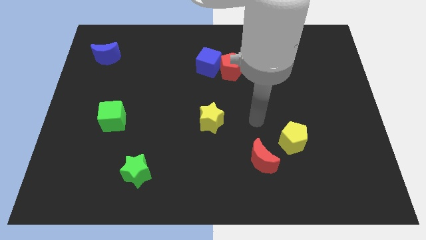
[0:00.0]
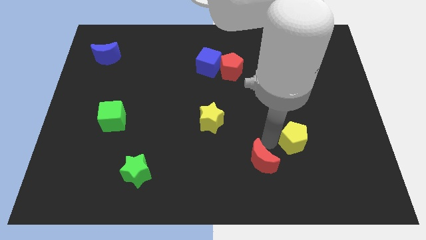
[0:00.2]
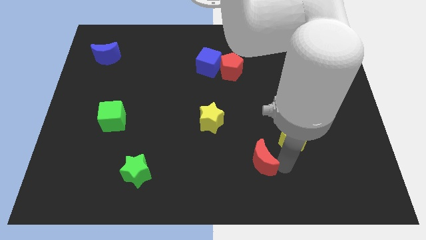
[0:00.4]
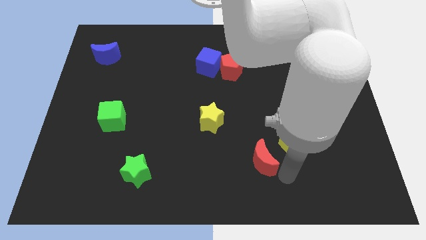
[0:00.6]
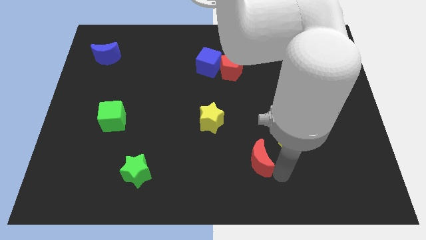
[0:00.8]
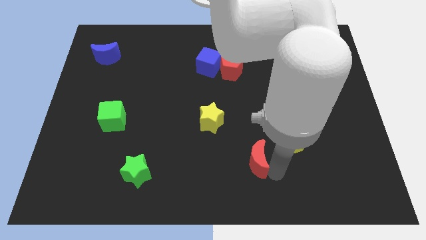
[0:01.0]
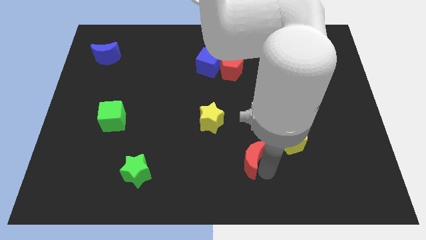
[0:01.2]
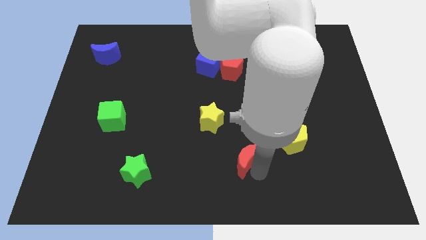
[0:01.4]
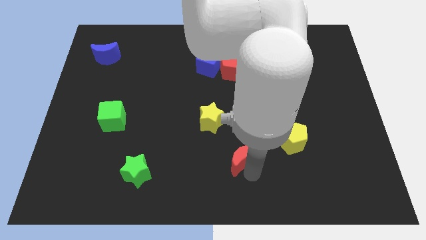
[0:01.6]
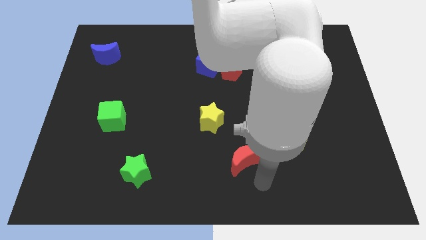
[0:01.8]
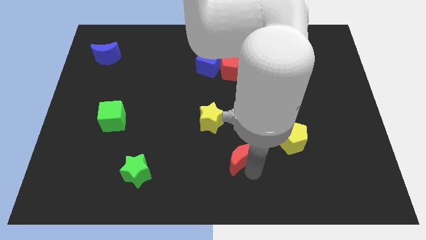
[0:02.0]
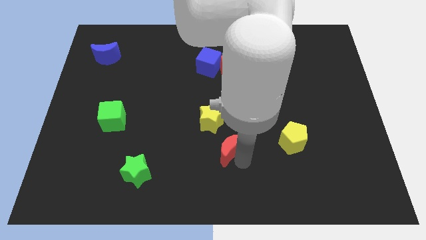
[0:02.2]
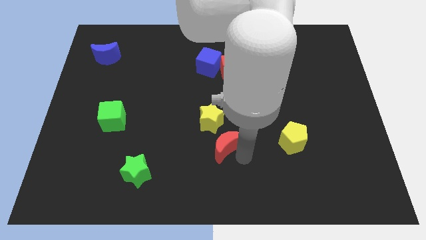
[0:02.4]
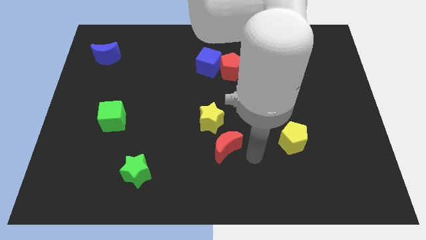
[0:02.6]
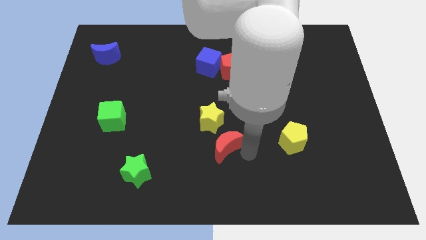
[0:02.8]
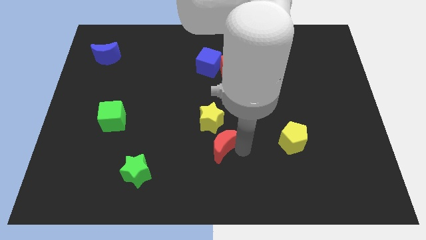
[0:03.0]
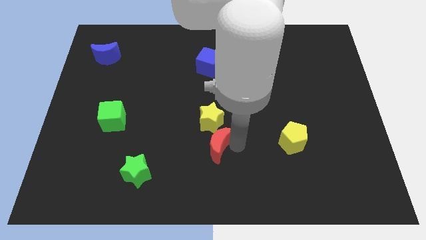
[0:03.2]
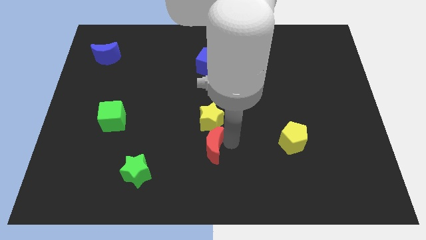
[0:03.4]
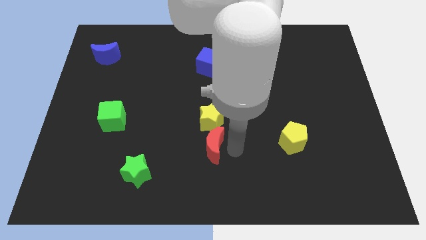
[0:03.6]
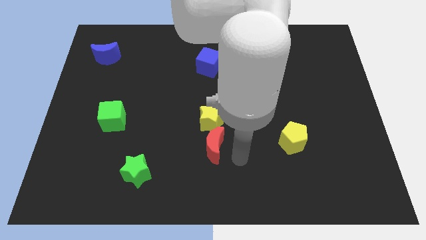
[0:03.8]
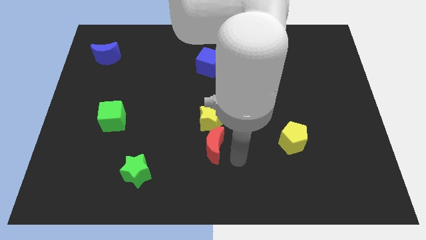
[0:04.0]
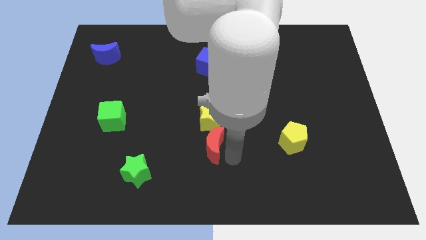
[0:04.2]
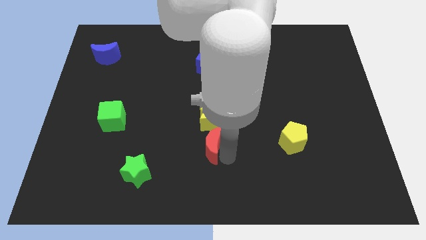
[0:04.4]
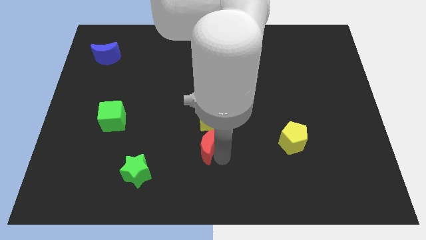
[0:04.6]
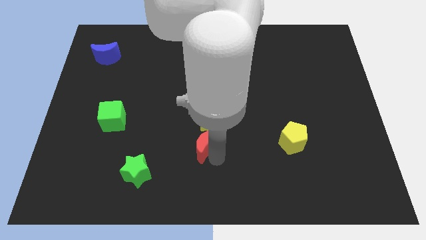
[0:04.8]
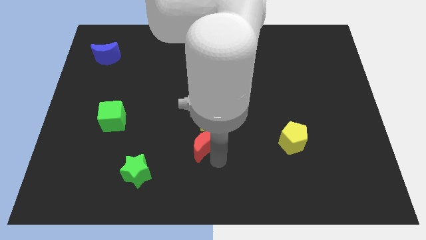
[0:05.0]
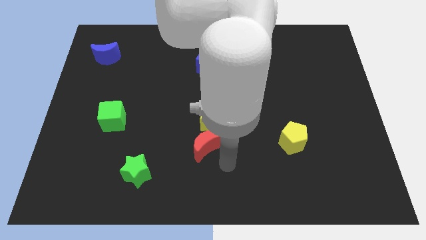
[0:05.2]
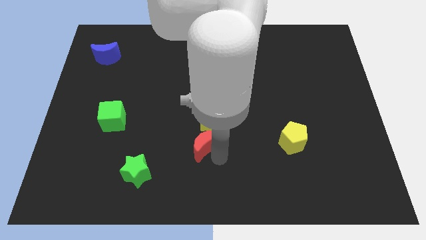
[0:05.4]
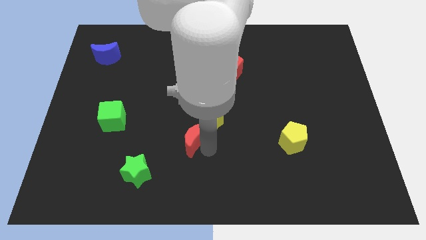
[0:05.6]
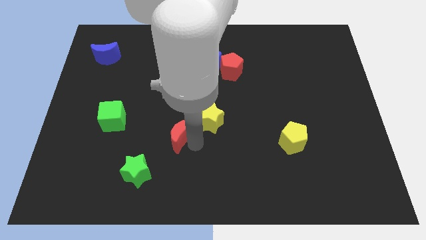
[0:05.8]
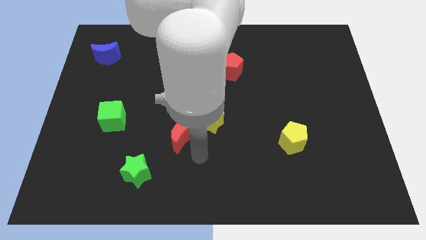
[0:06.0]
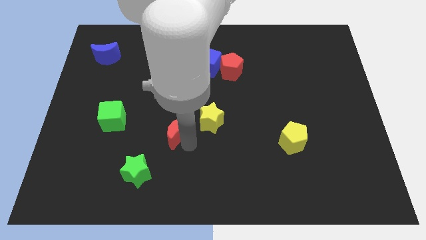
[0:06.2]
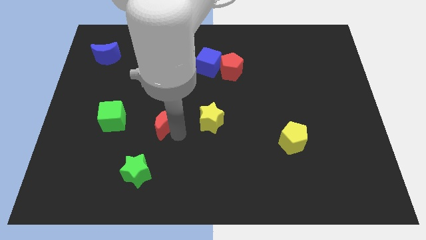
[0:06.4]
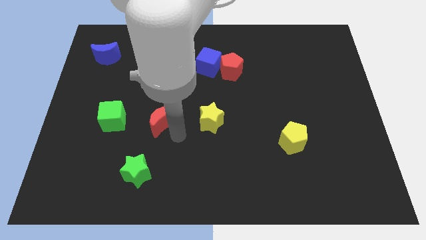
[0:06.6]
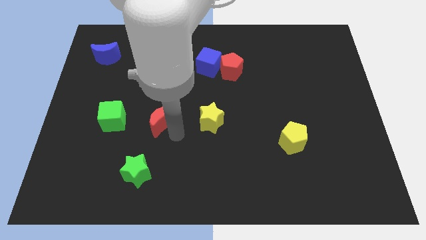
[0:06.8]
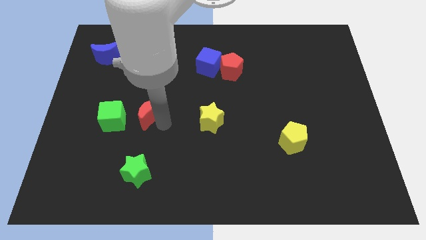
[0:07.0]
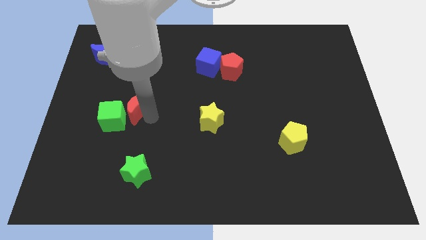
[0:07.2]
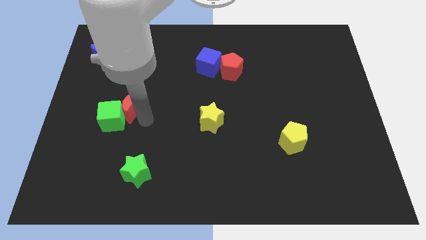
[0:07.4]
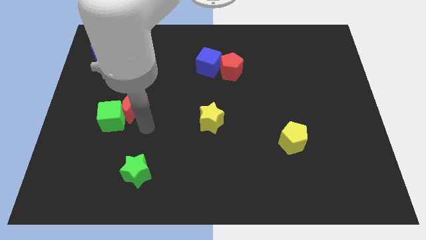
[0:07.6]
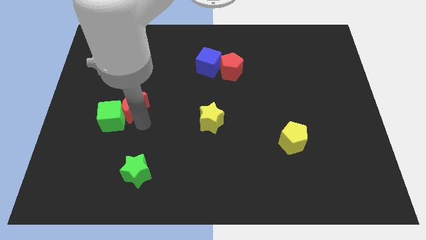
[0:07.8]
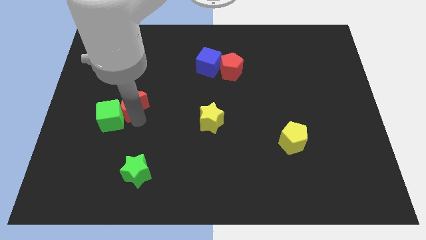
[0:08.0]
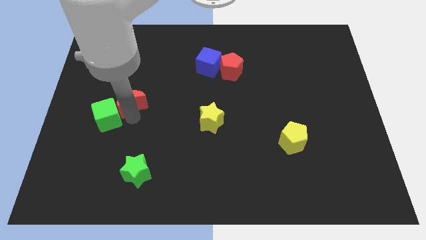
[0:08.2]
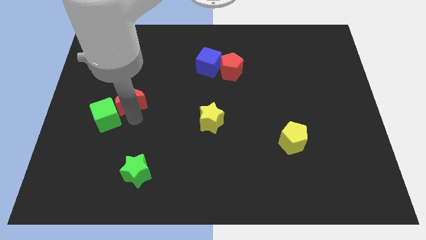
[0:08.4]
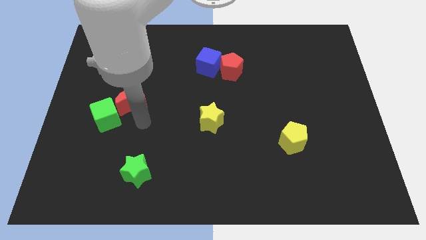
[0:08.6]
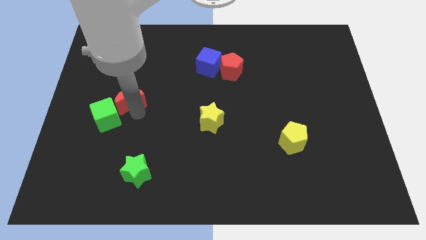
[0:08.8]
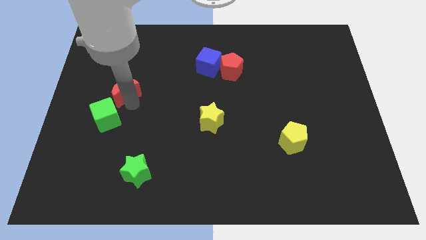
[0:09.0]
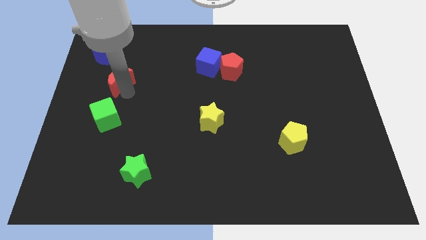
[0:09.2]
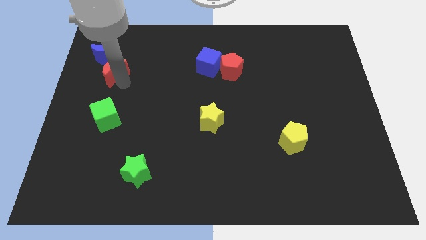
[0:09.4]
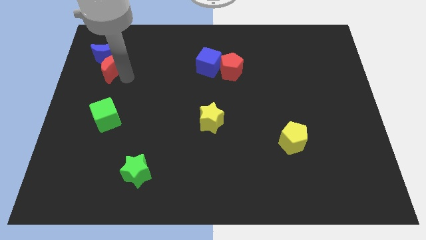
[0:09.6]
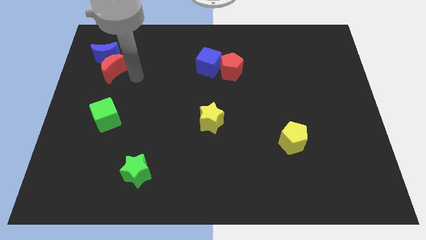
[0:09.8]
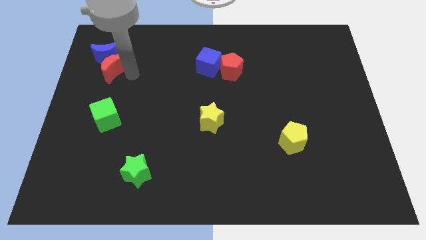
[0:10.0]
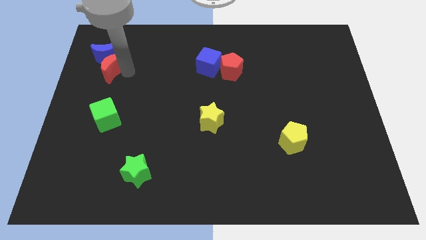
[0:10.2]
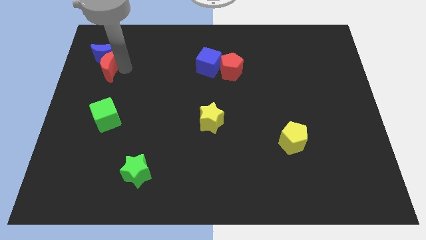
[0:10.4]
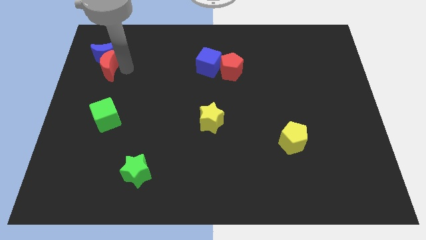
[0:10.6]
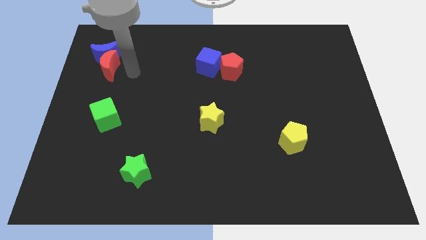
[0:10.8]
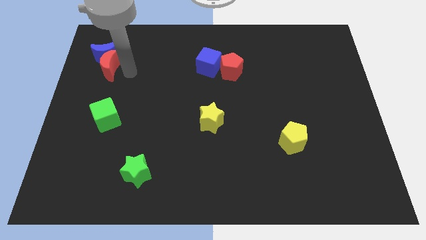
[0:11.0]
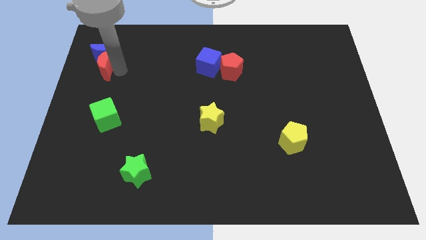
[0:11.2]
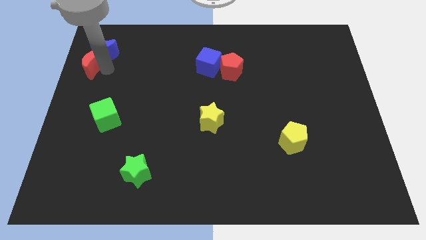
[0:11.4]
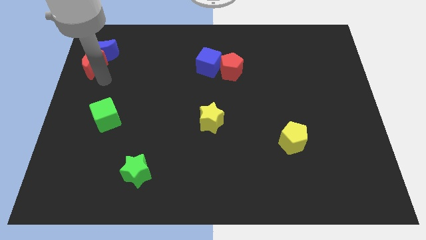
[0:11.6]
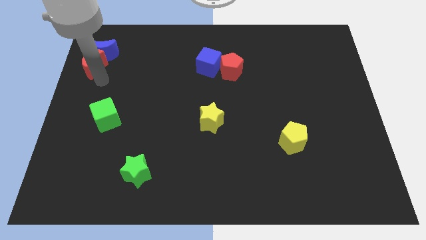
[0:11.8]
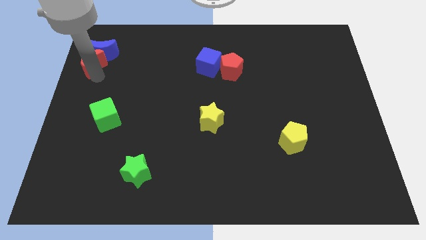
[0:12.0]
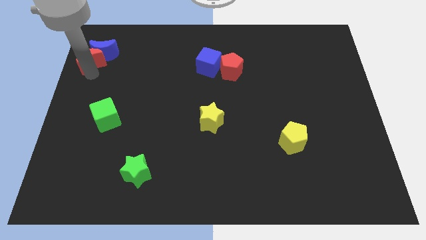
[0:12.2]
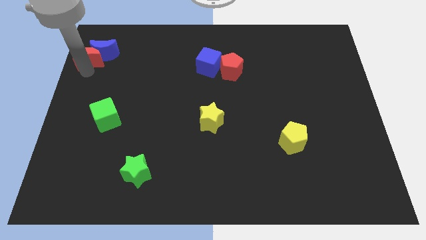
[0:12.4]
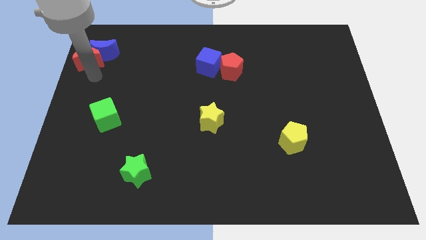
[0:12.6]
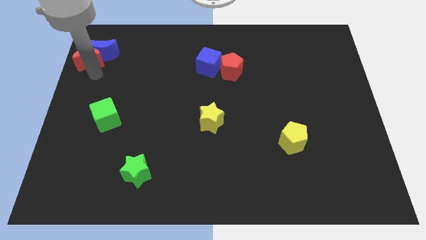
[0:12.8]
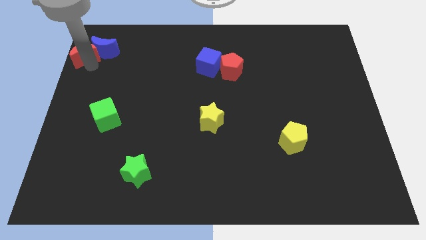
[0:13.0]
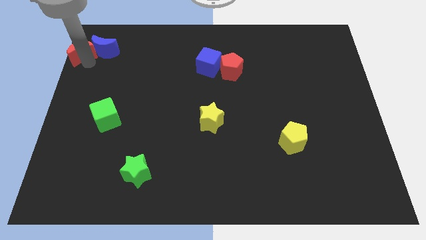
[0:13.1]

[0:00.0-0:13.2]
slide the red moon to the top left of the board

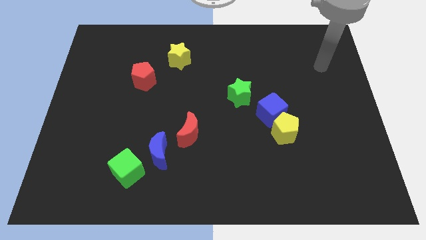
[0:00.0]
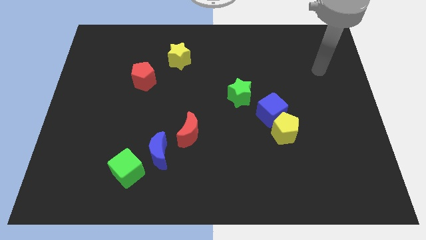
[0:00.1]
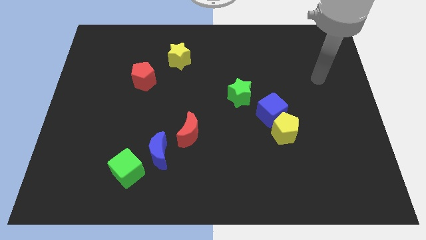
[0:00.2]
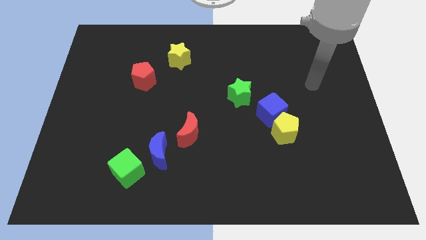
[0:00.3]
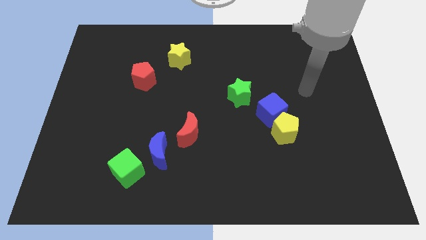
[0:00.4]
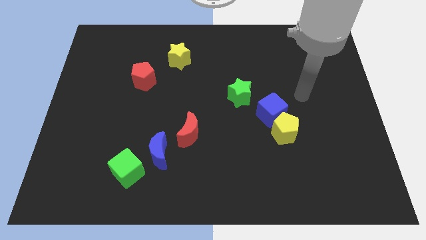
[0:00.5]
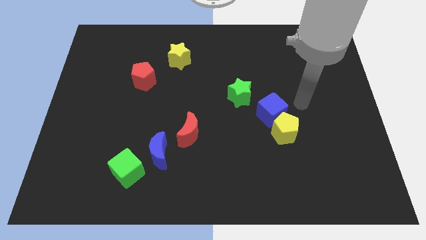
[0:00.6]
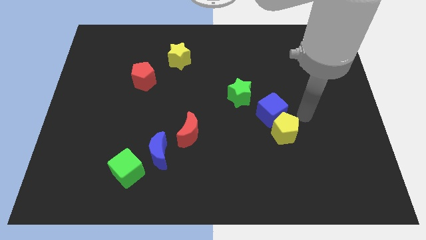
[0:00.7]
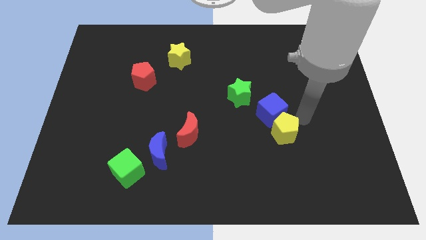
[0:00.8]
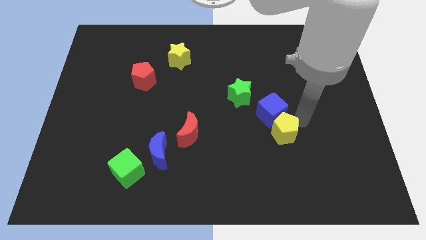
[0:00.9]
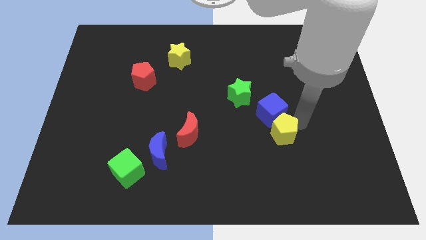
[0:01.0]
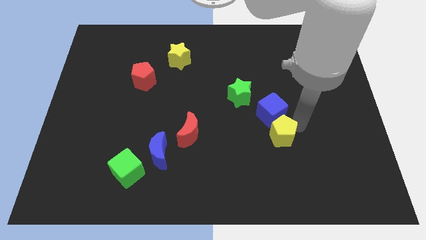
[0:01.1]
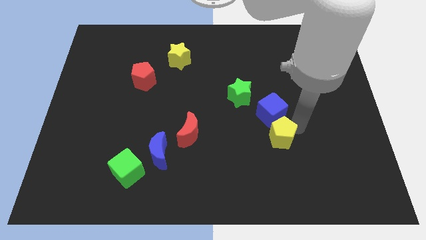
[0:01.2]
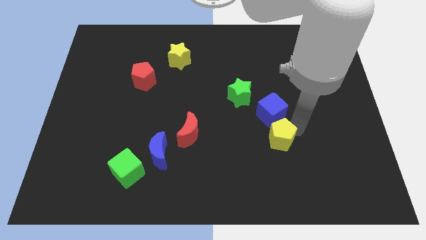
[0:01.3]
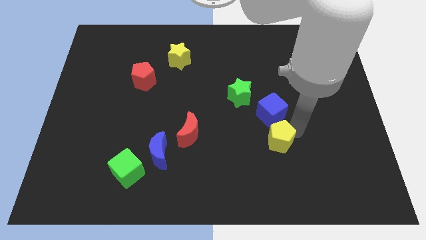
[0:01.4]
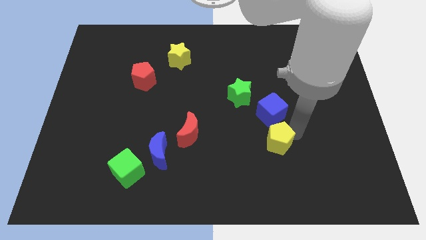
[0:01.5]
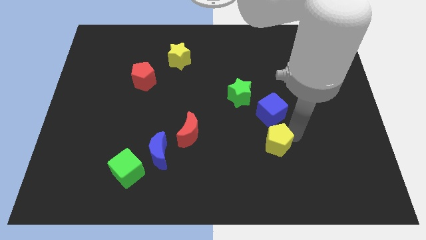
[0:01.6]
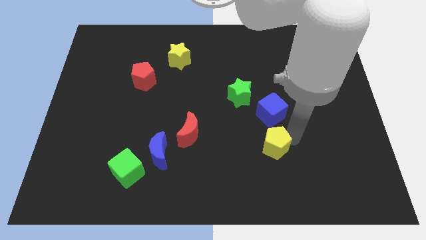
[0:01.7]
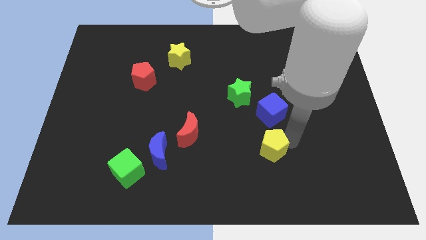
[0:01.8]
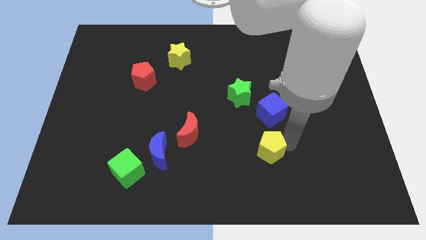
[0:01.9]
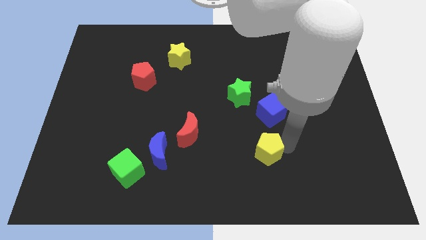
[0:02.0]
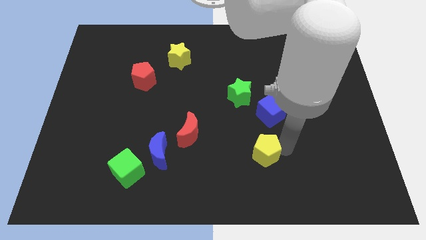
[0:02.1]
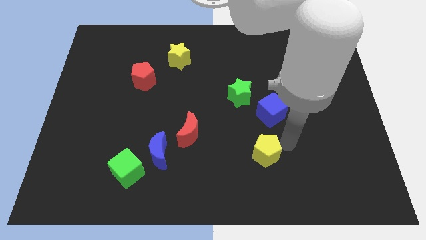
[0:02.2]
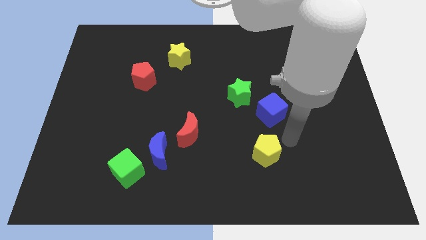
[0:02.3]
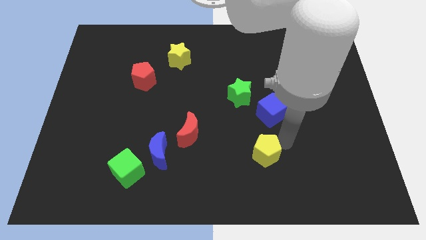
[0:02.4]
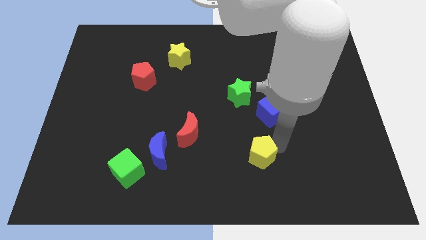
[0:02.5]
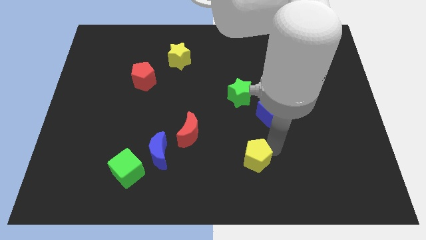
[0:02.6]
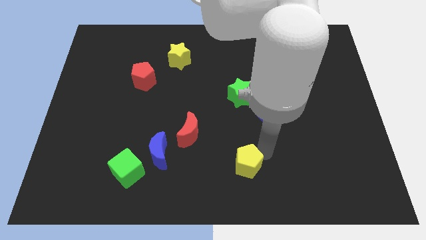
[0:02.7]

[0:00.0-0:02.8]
slide the yellow pentagon to the bottom side
